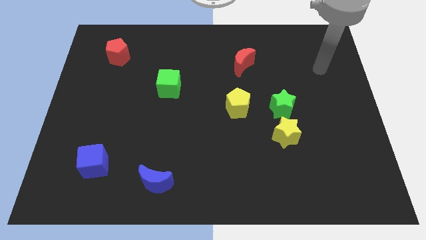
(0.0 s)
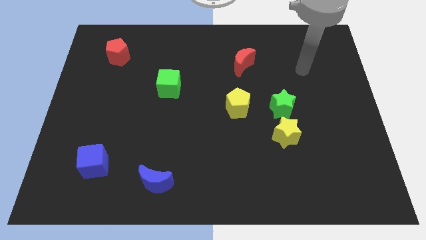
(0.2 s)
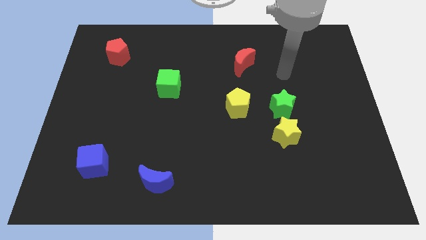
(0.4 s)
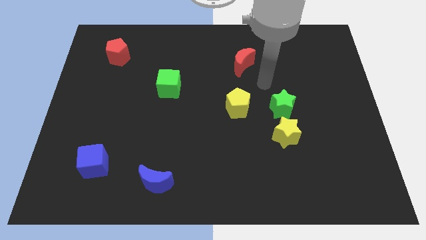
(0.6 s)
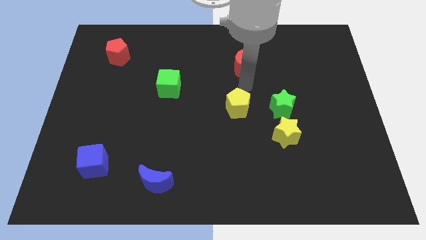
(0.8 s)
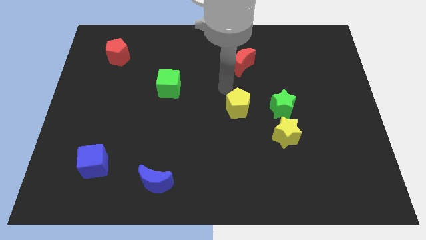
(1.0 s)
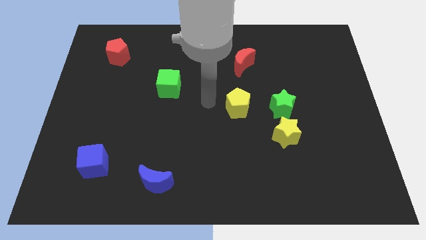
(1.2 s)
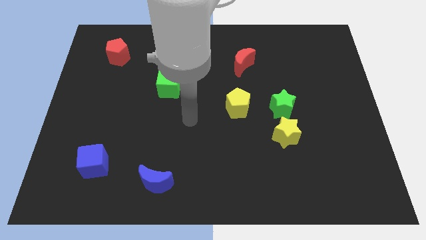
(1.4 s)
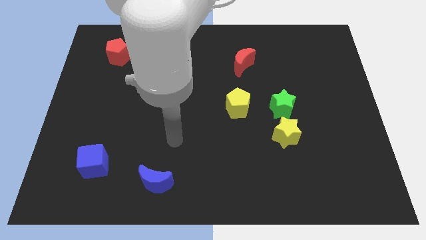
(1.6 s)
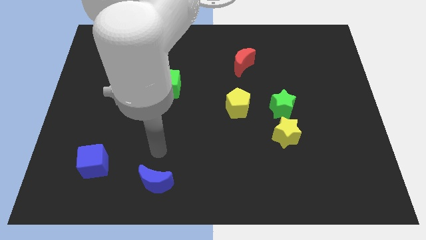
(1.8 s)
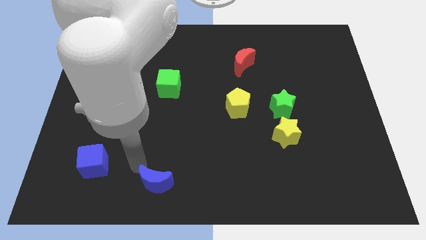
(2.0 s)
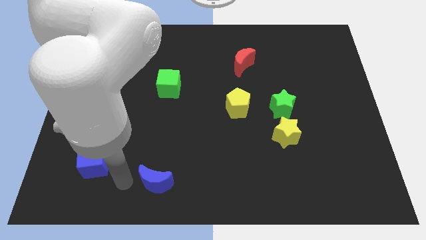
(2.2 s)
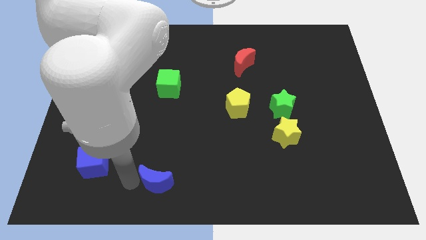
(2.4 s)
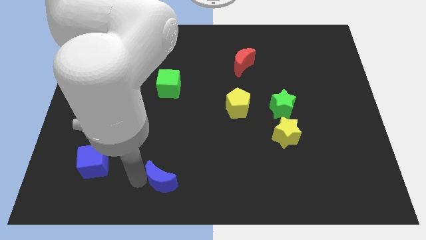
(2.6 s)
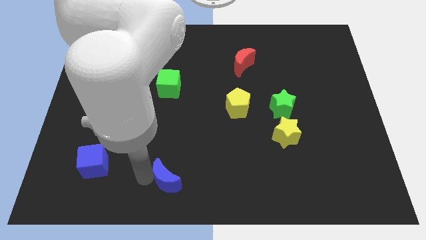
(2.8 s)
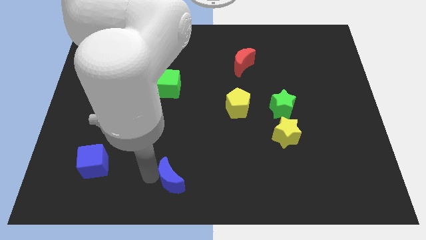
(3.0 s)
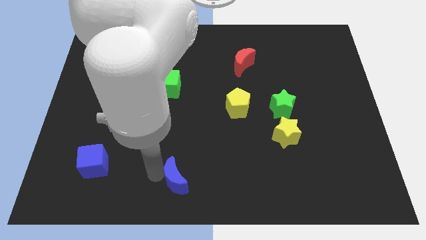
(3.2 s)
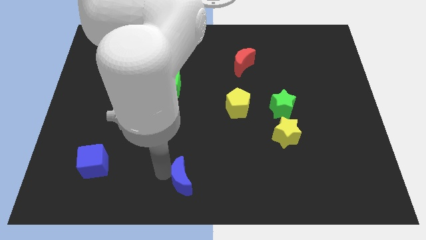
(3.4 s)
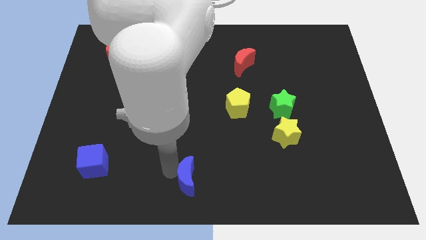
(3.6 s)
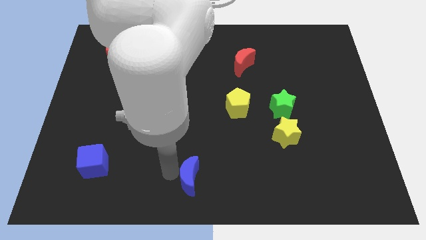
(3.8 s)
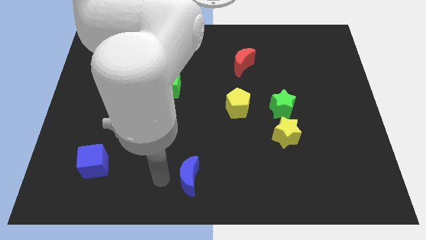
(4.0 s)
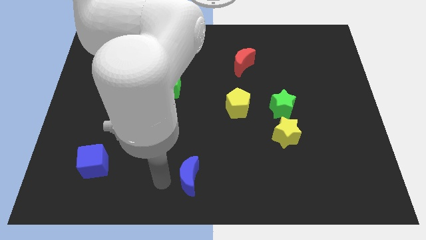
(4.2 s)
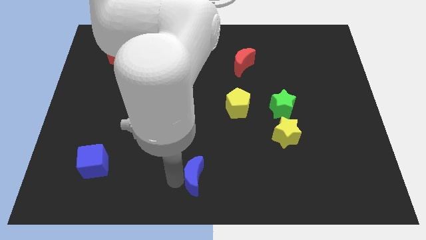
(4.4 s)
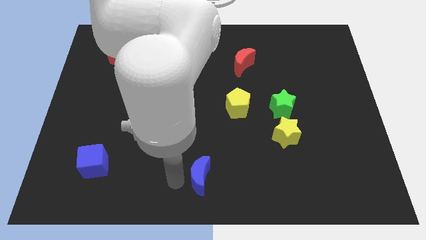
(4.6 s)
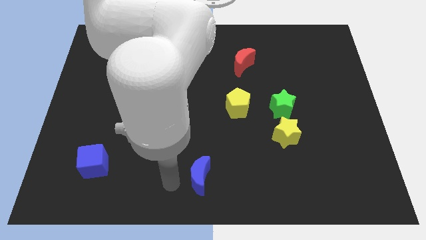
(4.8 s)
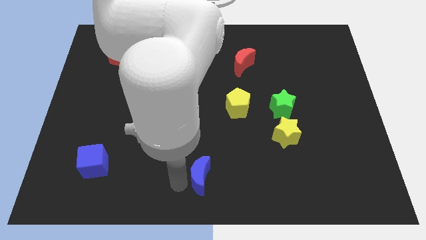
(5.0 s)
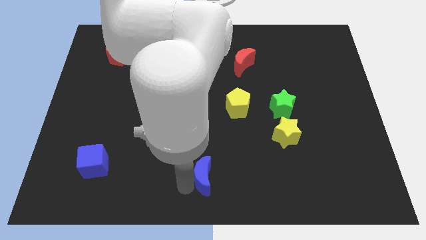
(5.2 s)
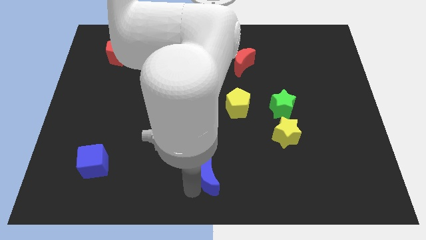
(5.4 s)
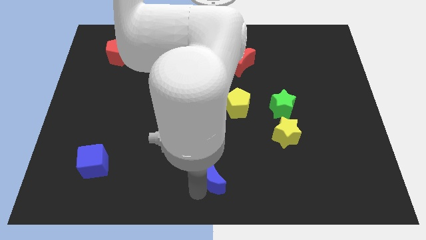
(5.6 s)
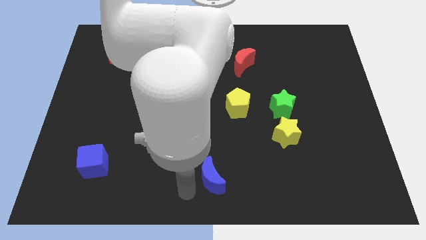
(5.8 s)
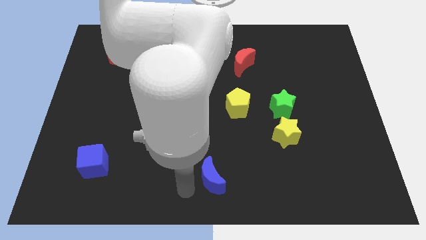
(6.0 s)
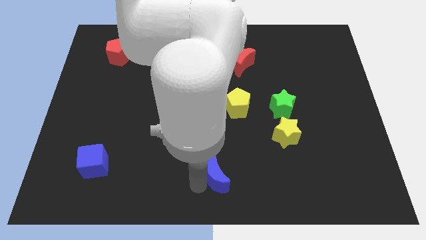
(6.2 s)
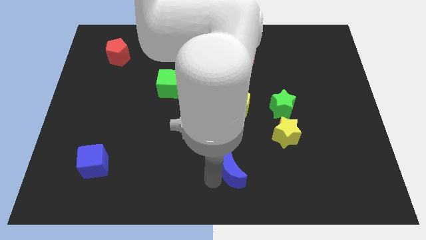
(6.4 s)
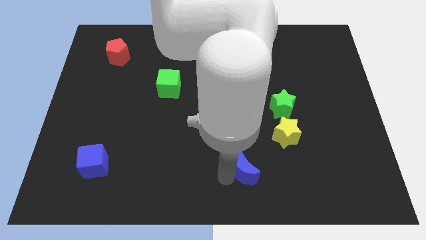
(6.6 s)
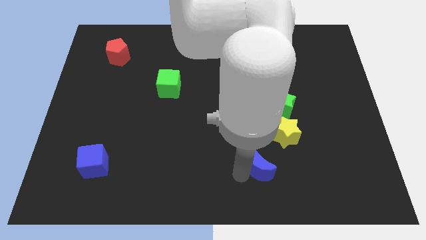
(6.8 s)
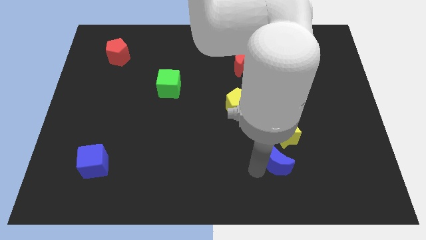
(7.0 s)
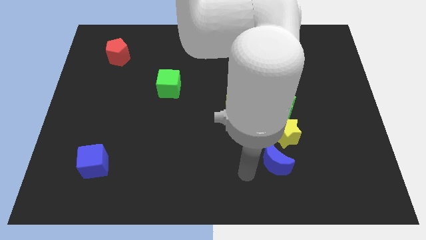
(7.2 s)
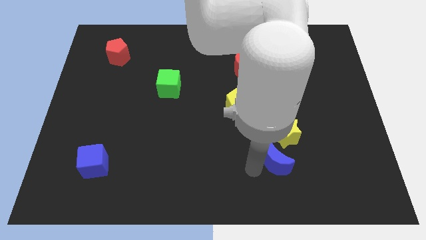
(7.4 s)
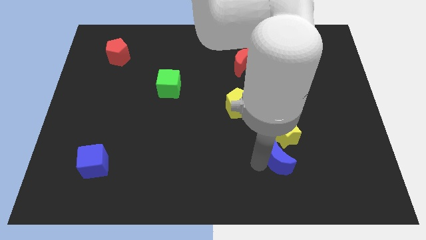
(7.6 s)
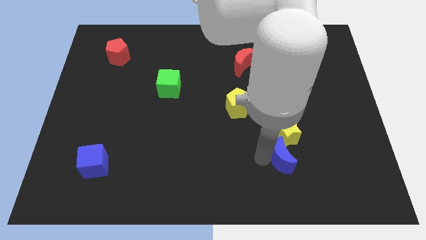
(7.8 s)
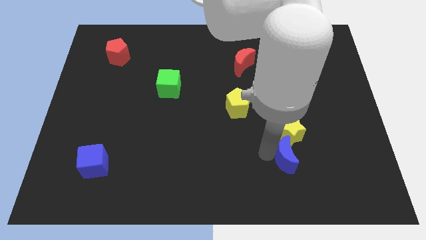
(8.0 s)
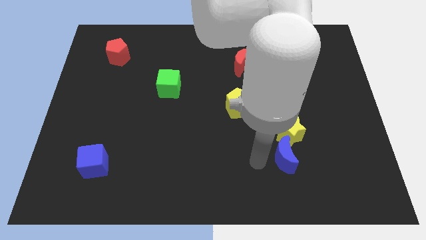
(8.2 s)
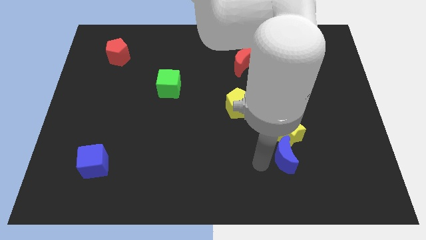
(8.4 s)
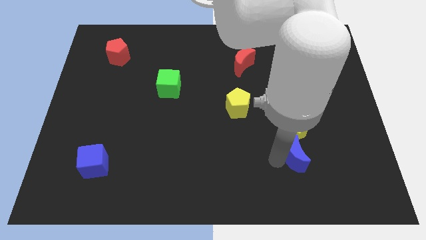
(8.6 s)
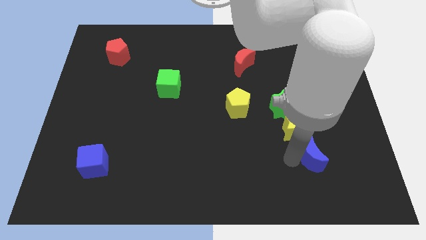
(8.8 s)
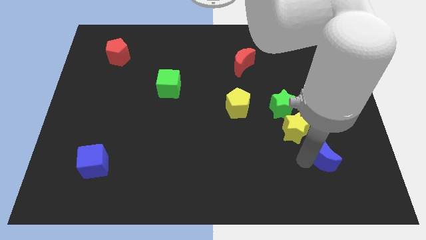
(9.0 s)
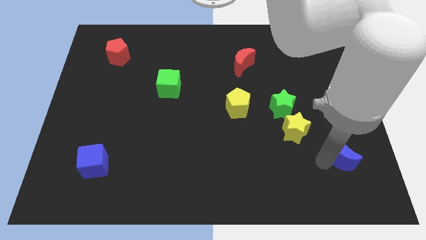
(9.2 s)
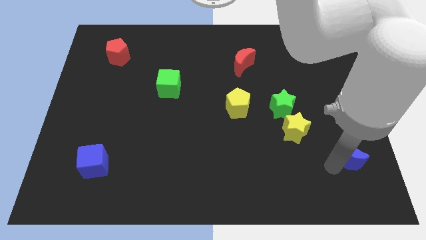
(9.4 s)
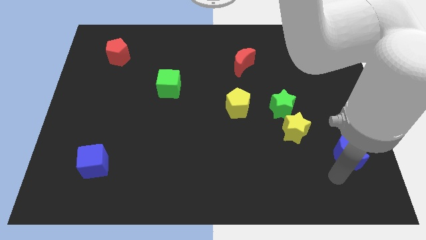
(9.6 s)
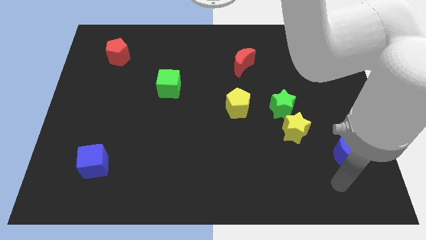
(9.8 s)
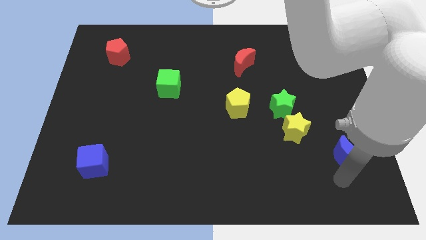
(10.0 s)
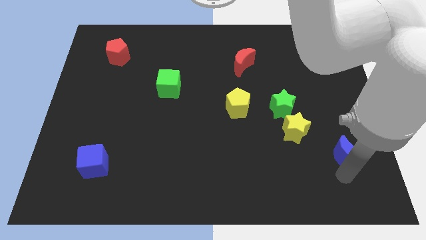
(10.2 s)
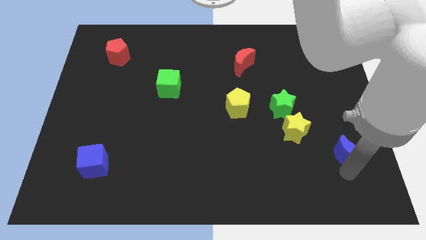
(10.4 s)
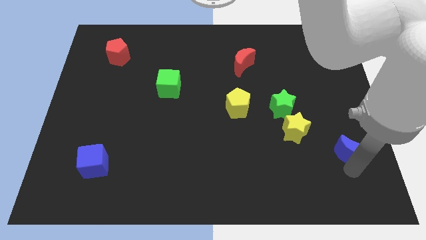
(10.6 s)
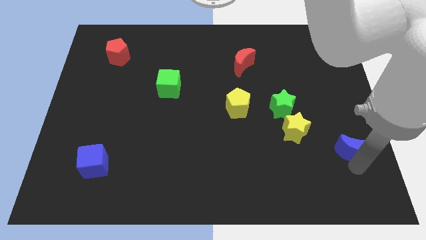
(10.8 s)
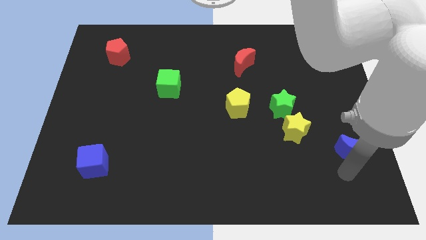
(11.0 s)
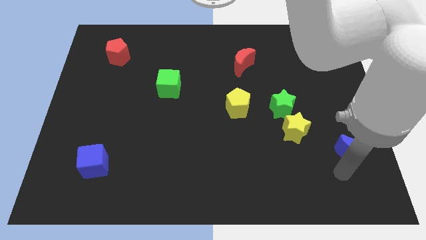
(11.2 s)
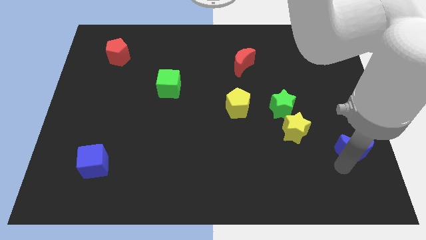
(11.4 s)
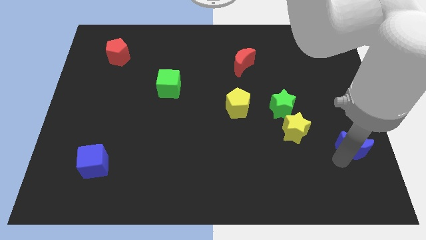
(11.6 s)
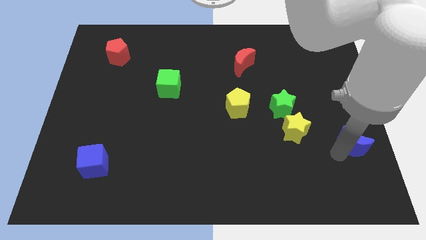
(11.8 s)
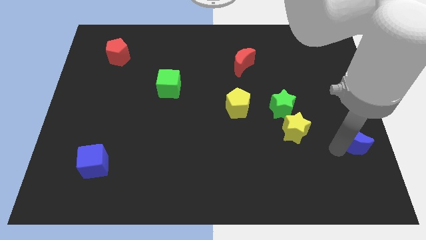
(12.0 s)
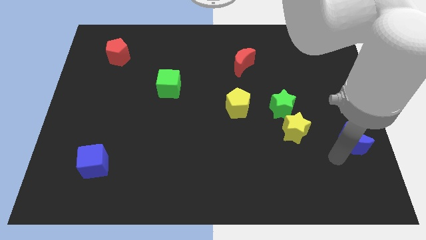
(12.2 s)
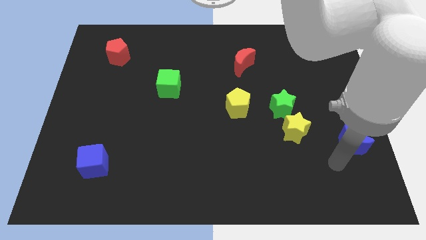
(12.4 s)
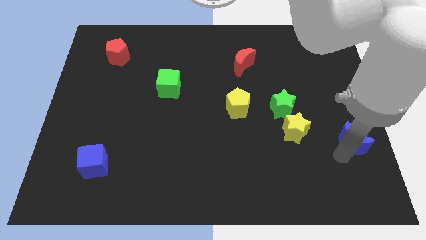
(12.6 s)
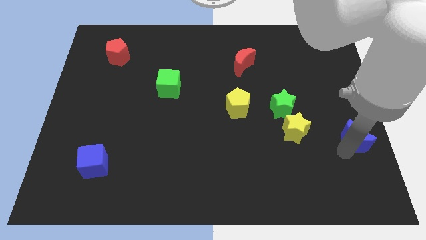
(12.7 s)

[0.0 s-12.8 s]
move the blue moon to the right side
